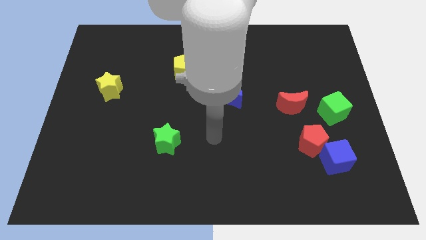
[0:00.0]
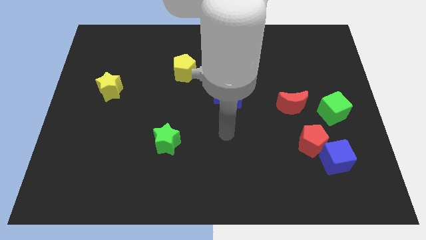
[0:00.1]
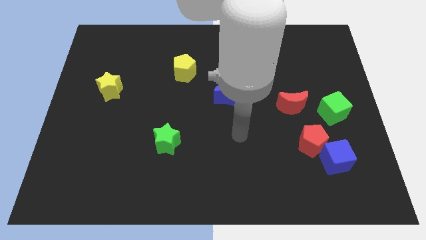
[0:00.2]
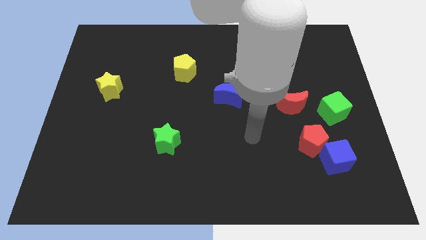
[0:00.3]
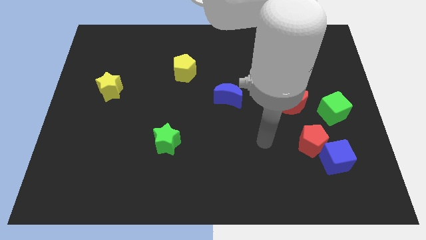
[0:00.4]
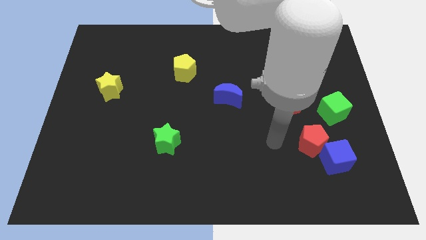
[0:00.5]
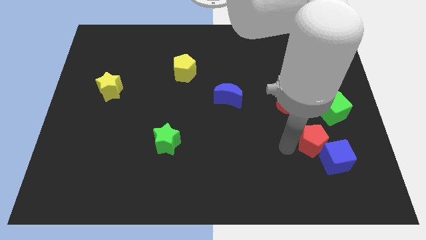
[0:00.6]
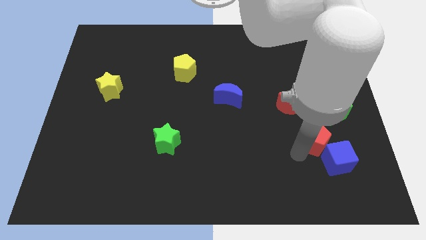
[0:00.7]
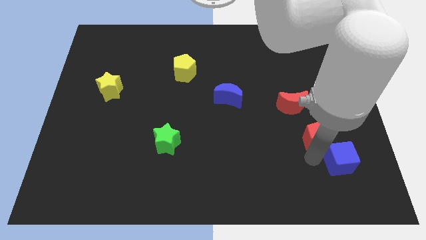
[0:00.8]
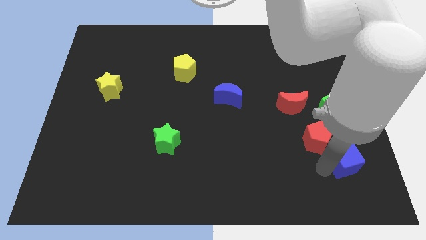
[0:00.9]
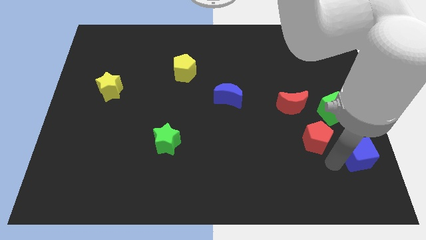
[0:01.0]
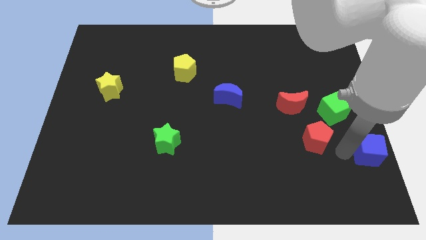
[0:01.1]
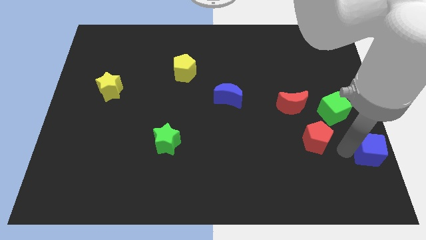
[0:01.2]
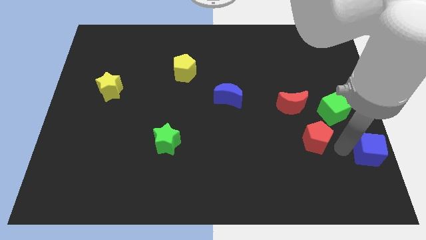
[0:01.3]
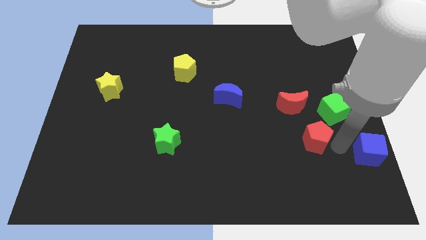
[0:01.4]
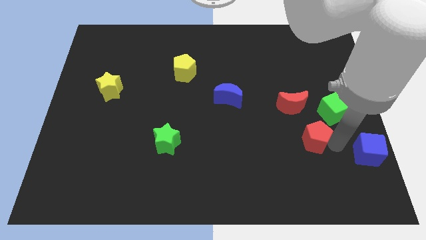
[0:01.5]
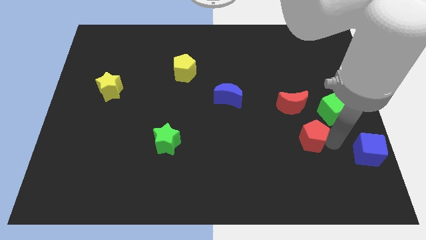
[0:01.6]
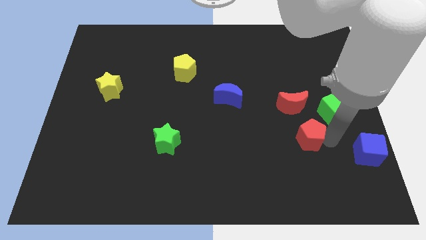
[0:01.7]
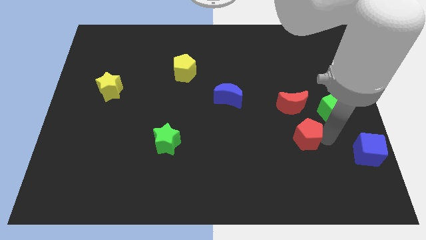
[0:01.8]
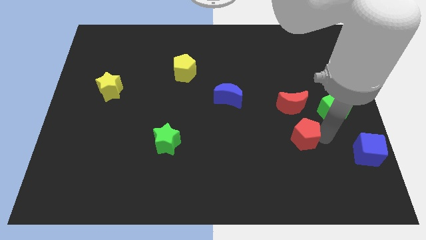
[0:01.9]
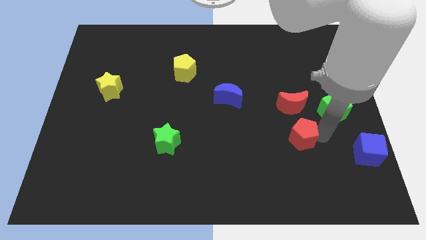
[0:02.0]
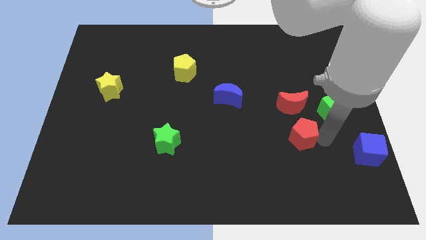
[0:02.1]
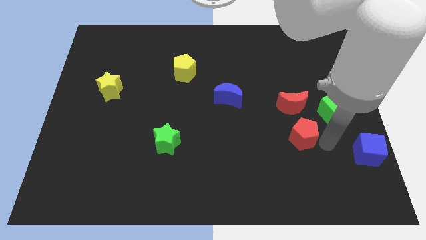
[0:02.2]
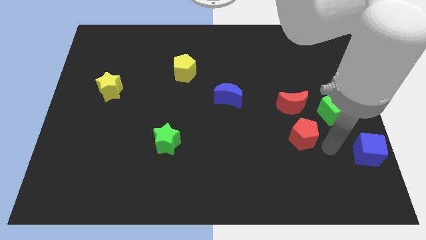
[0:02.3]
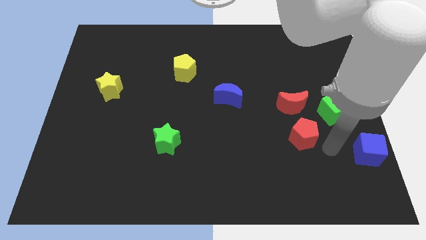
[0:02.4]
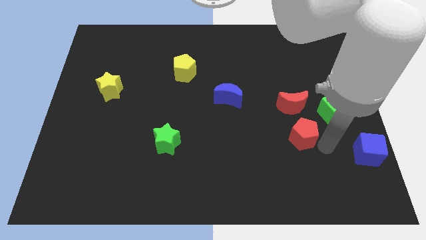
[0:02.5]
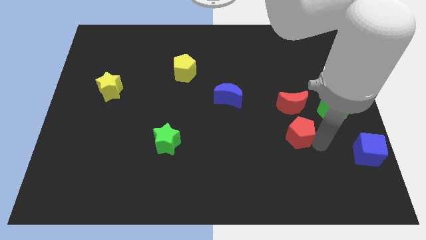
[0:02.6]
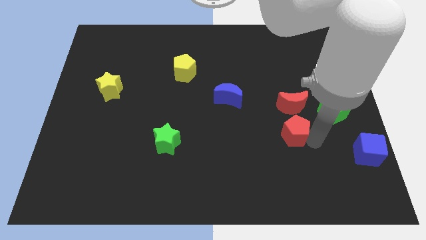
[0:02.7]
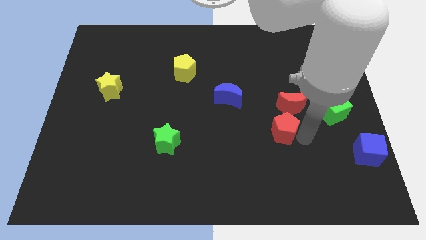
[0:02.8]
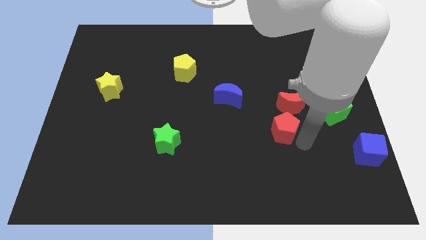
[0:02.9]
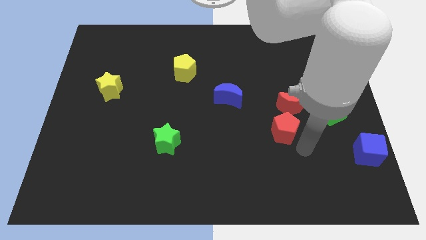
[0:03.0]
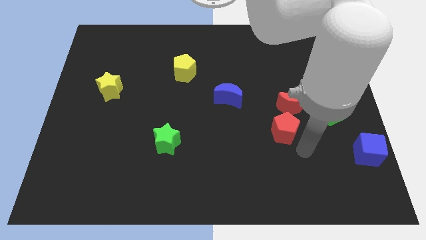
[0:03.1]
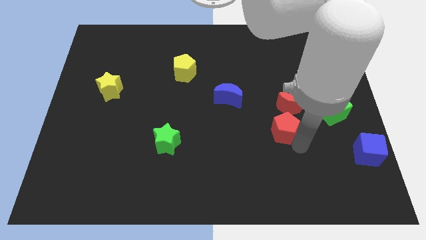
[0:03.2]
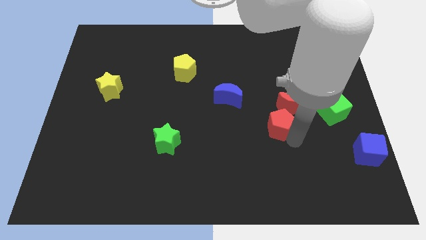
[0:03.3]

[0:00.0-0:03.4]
slide the red pentagon a little bit upwards and then to the left

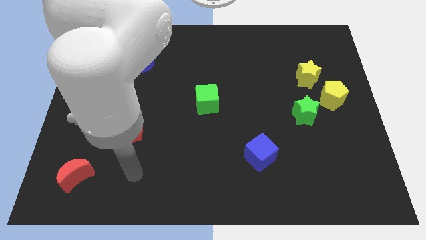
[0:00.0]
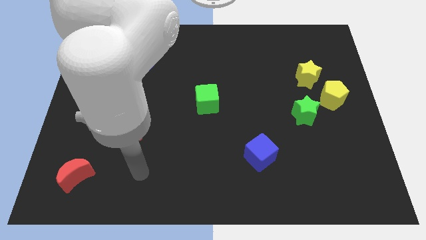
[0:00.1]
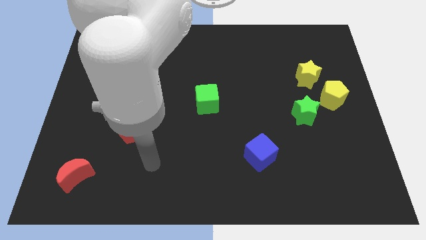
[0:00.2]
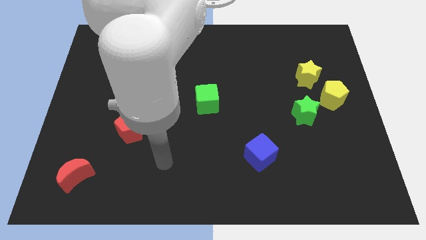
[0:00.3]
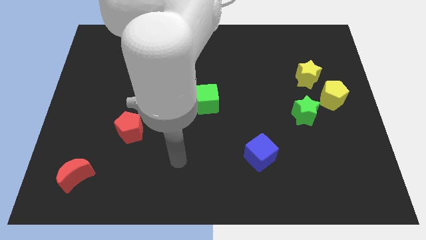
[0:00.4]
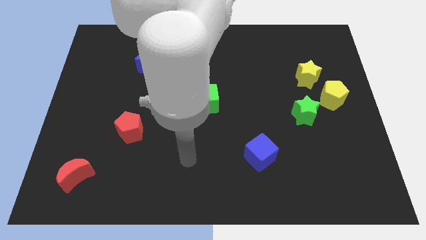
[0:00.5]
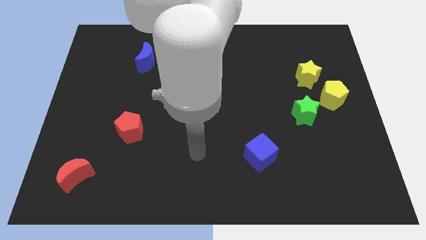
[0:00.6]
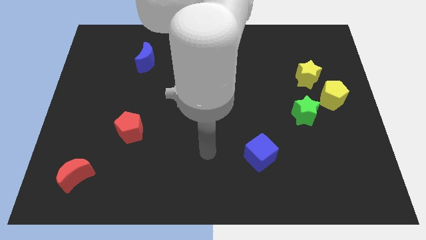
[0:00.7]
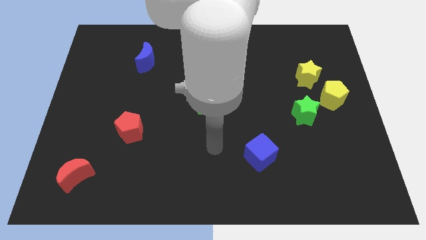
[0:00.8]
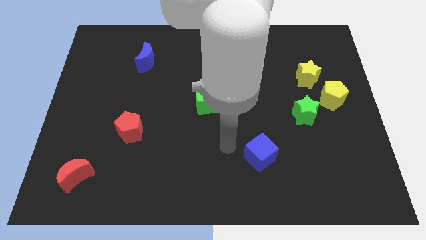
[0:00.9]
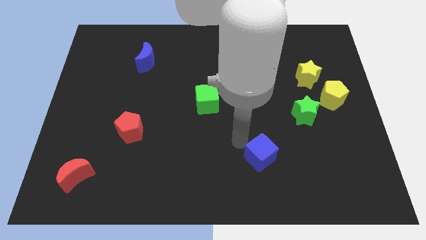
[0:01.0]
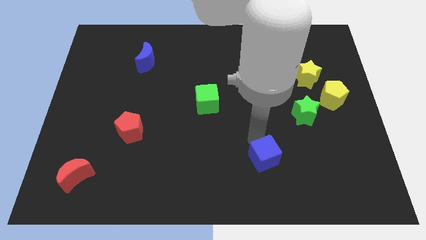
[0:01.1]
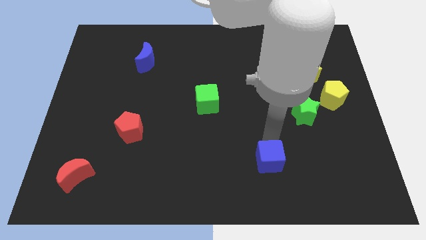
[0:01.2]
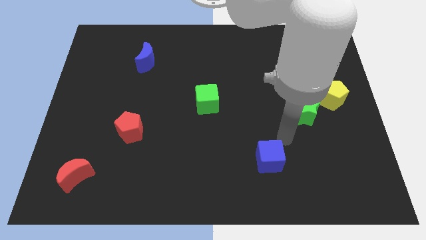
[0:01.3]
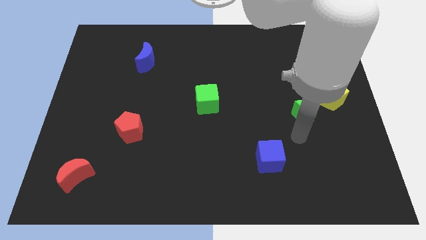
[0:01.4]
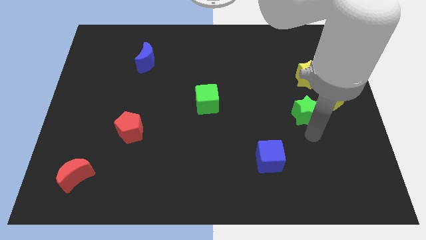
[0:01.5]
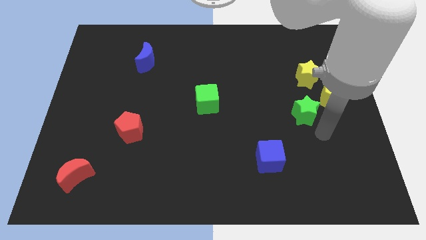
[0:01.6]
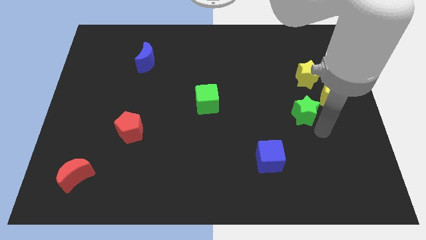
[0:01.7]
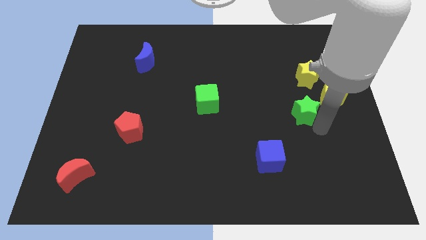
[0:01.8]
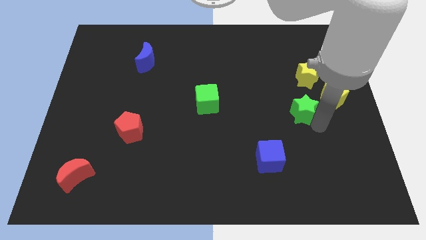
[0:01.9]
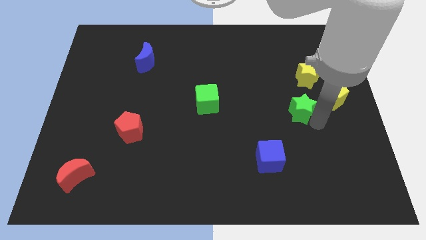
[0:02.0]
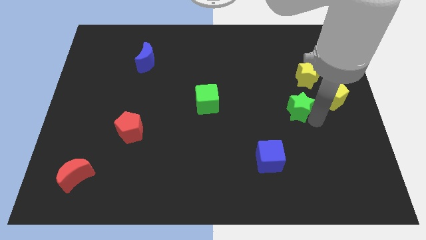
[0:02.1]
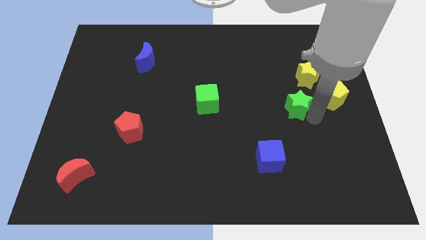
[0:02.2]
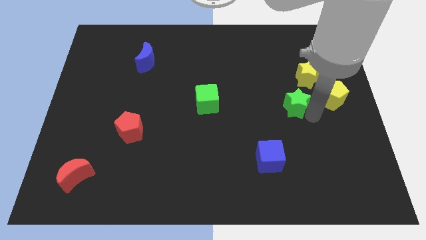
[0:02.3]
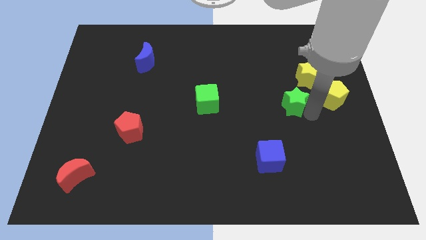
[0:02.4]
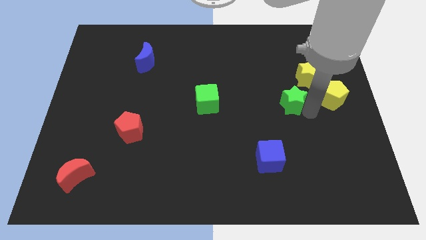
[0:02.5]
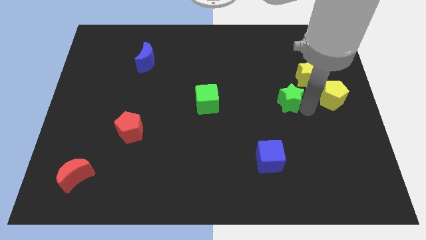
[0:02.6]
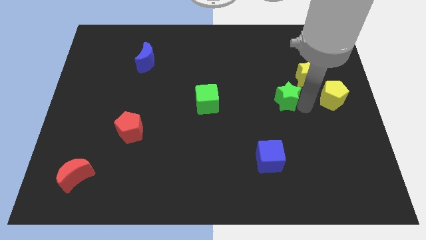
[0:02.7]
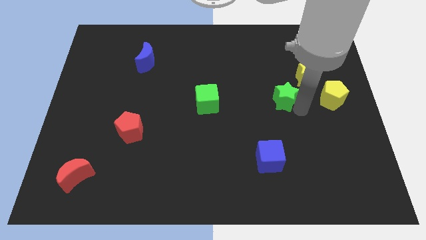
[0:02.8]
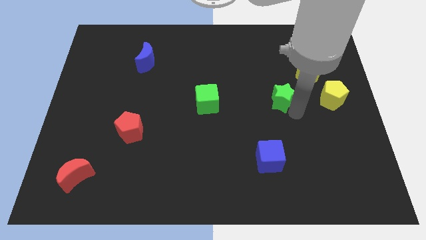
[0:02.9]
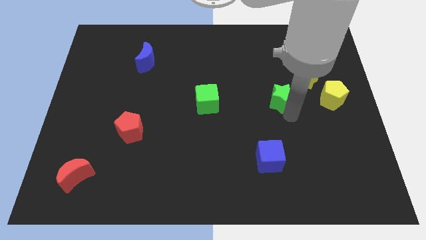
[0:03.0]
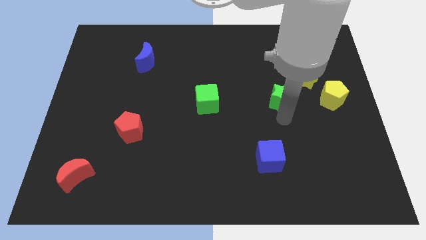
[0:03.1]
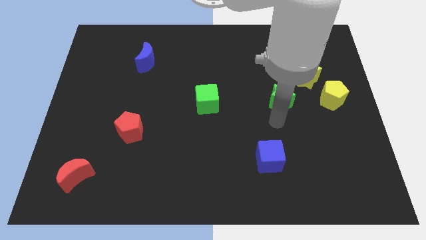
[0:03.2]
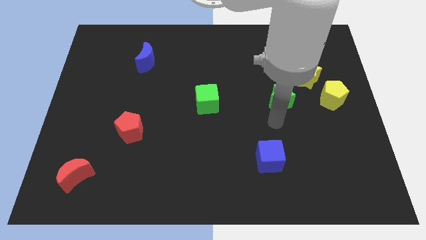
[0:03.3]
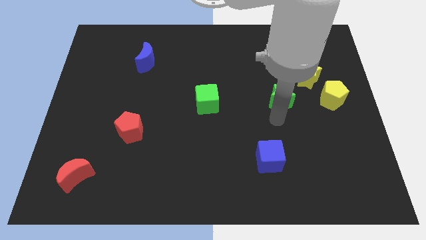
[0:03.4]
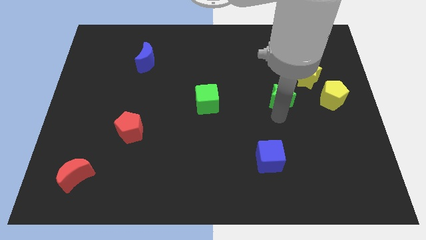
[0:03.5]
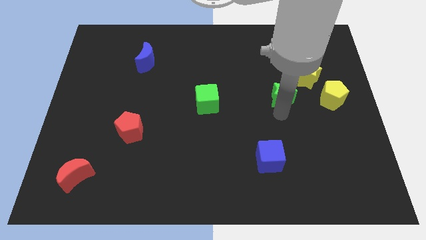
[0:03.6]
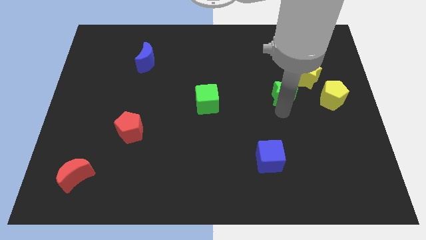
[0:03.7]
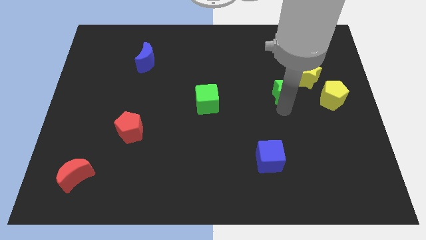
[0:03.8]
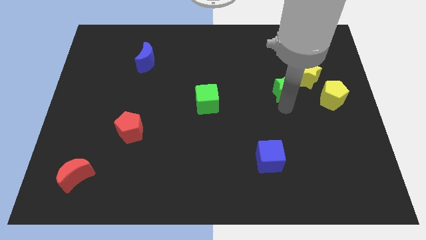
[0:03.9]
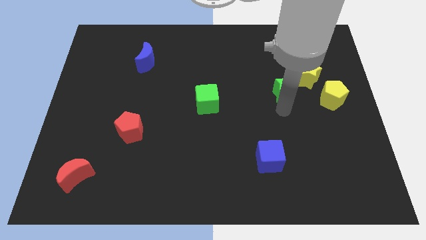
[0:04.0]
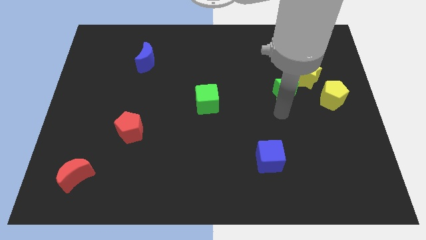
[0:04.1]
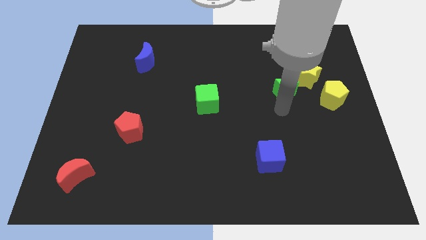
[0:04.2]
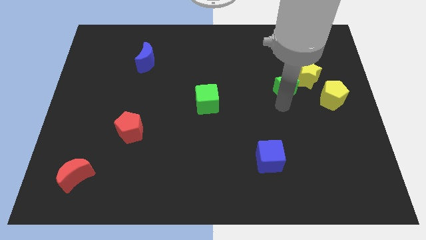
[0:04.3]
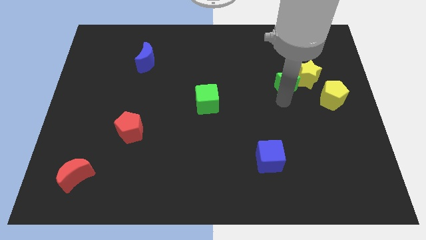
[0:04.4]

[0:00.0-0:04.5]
slide the green star a little upwards
